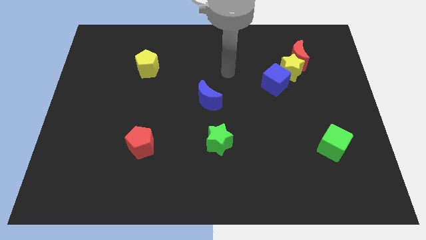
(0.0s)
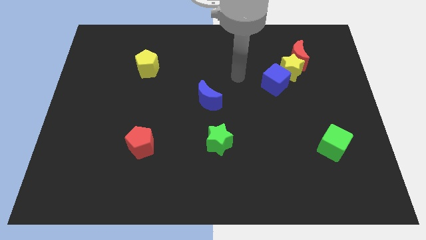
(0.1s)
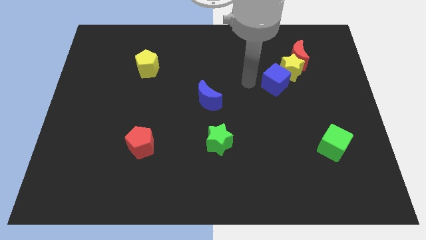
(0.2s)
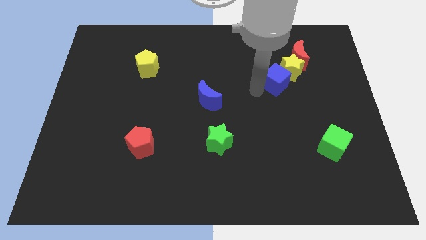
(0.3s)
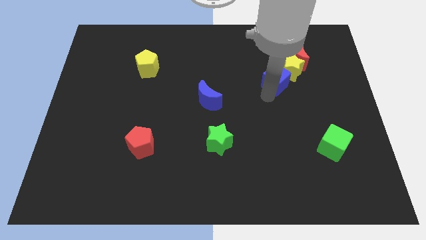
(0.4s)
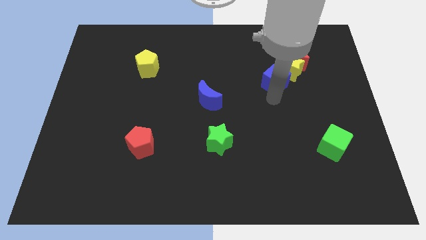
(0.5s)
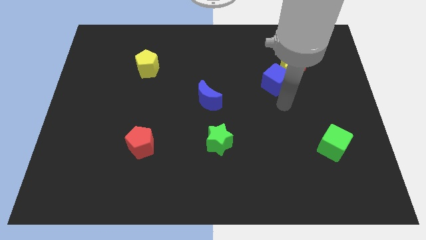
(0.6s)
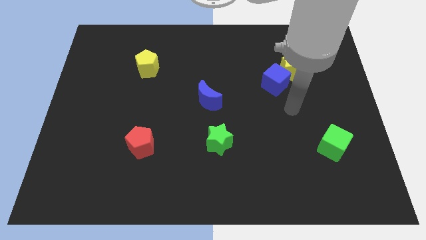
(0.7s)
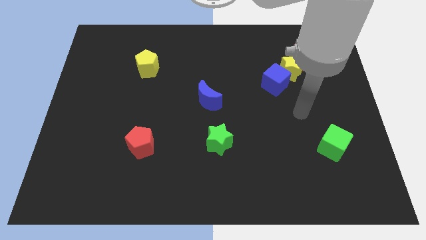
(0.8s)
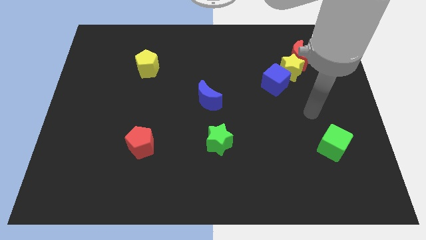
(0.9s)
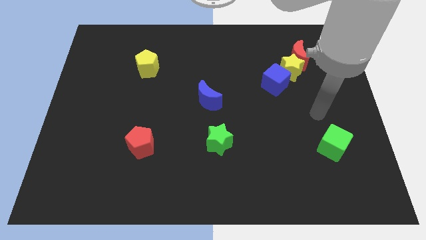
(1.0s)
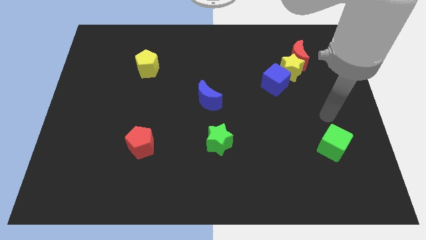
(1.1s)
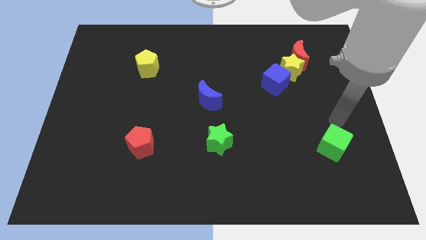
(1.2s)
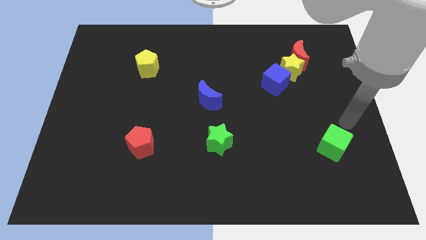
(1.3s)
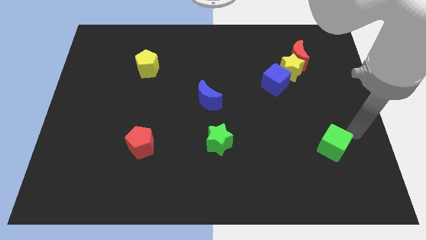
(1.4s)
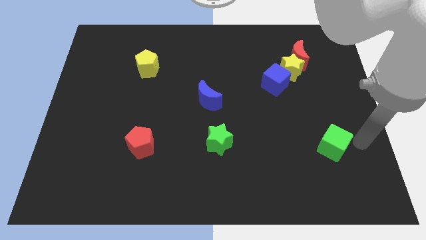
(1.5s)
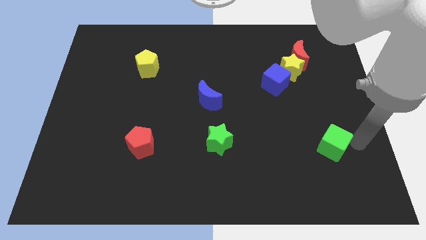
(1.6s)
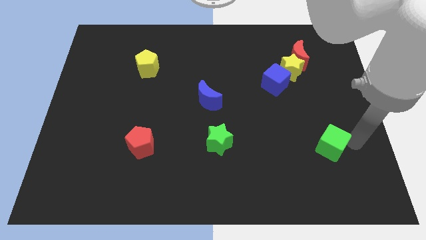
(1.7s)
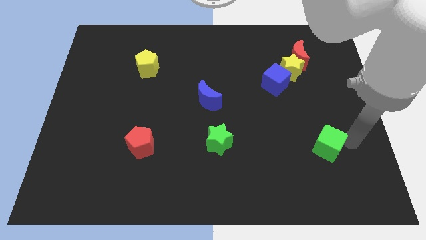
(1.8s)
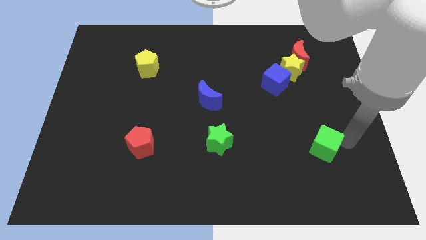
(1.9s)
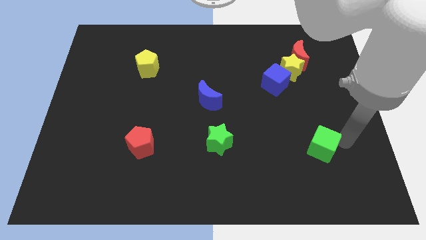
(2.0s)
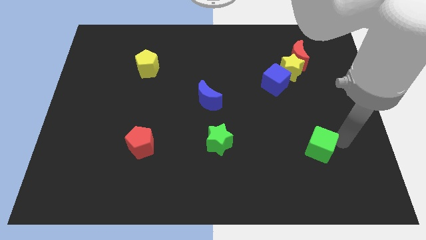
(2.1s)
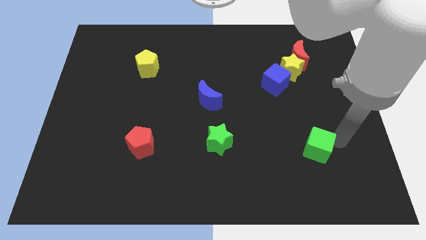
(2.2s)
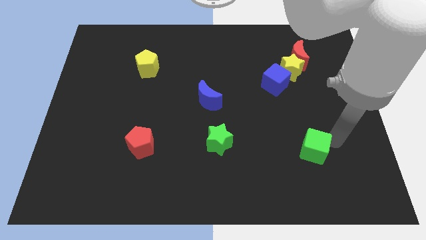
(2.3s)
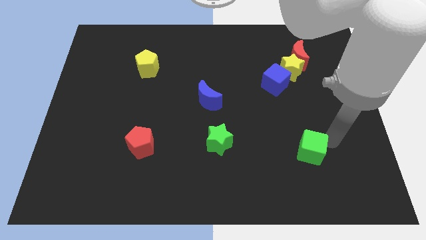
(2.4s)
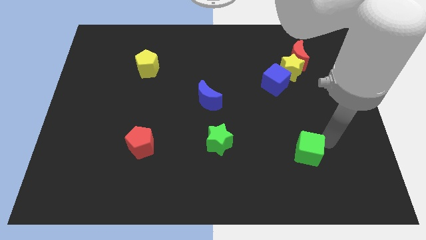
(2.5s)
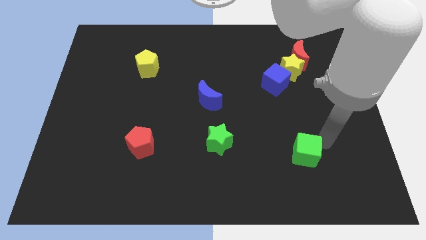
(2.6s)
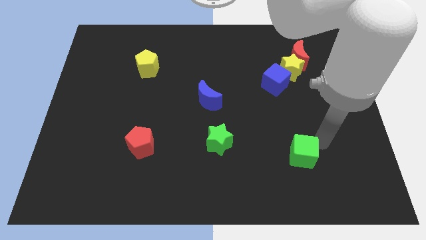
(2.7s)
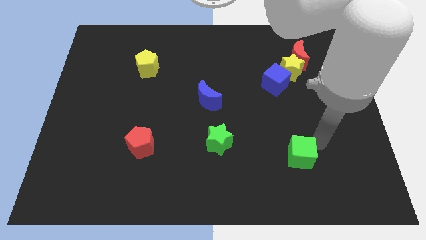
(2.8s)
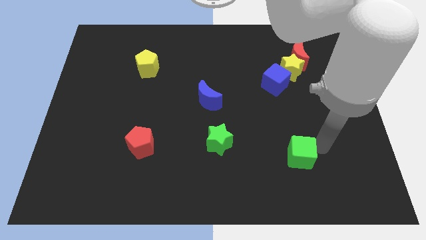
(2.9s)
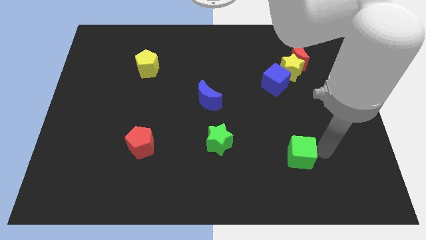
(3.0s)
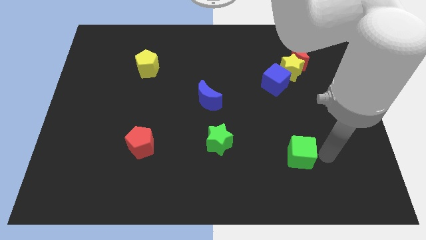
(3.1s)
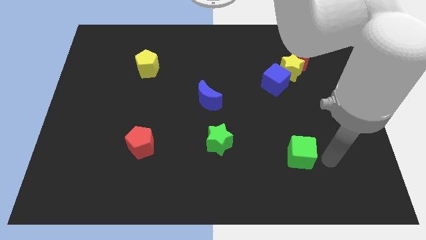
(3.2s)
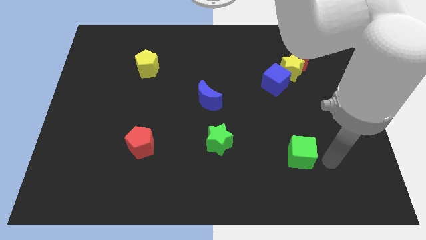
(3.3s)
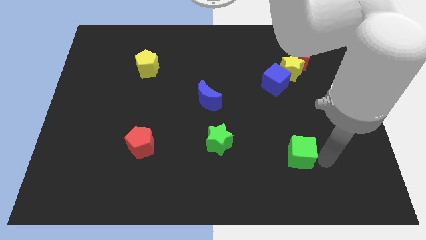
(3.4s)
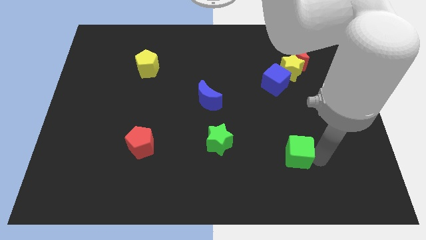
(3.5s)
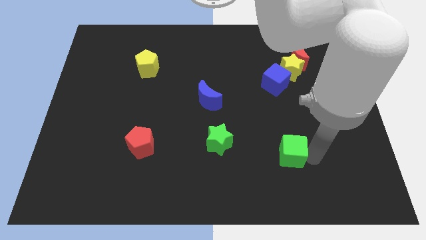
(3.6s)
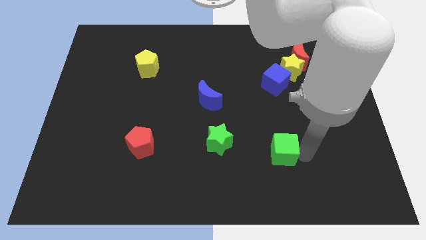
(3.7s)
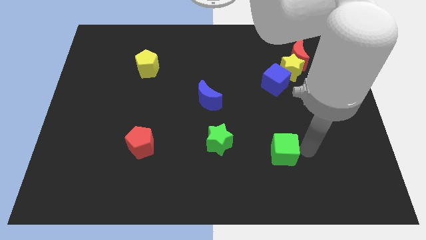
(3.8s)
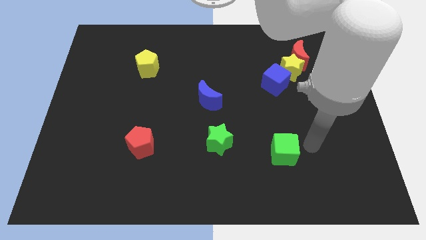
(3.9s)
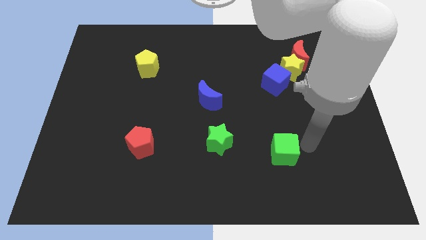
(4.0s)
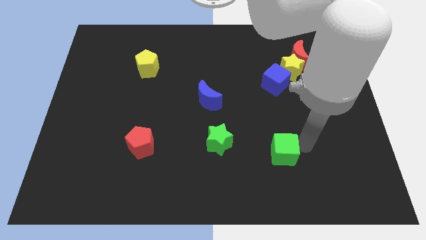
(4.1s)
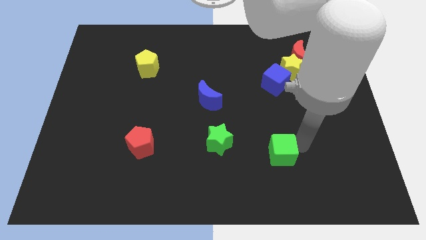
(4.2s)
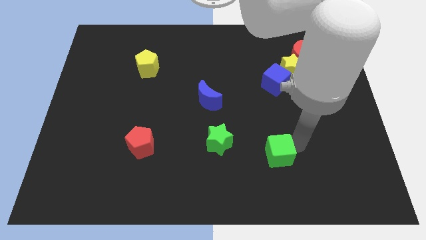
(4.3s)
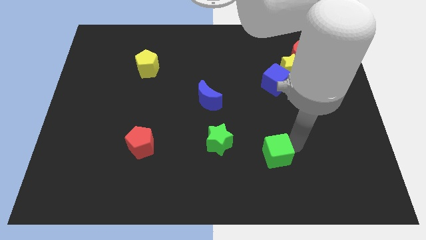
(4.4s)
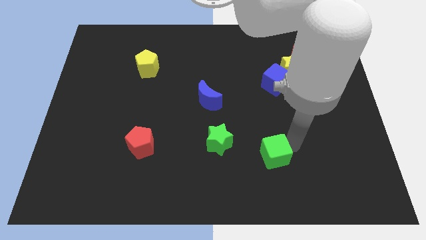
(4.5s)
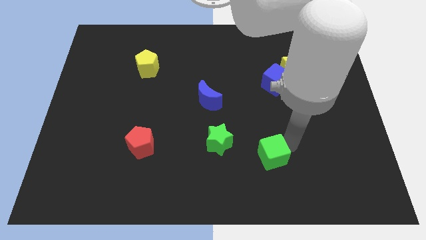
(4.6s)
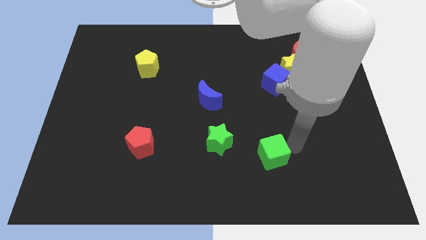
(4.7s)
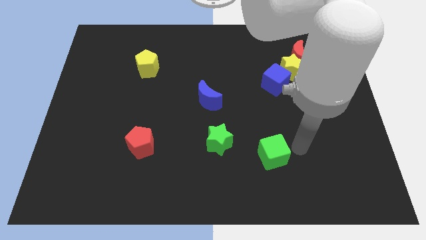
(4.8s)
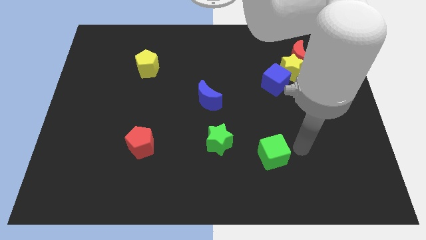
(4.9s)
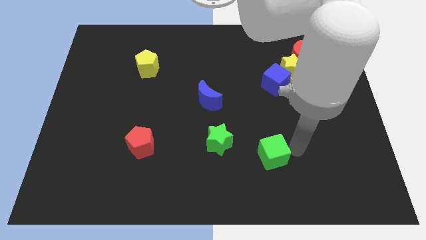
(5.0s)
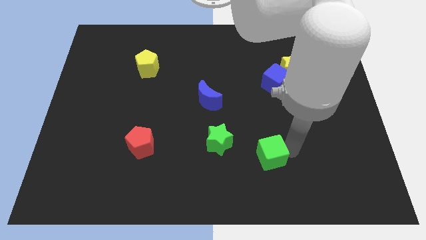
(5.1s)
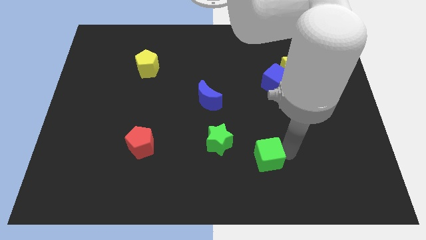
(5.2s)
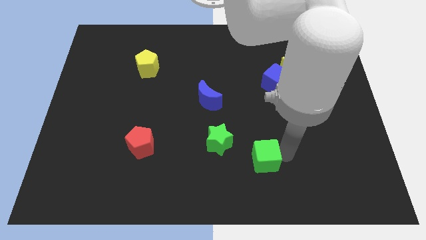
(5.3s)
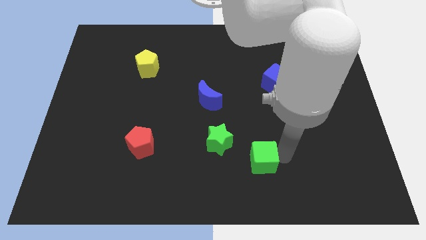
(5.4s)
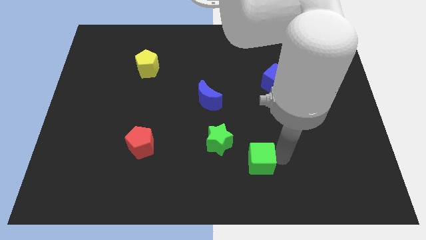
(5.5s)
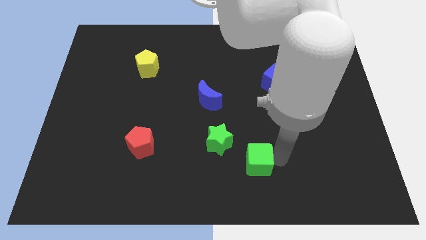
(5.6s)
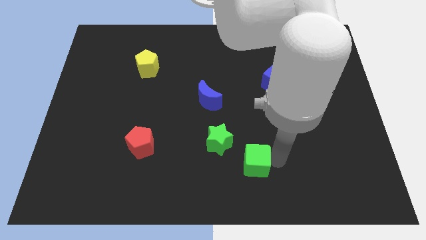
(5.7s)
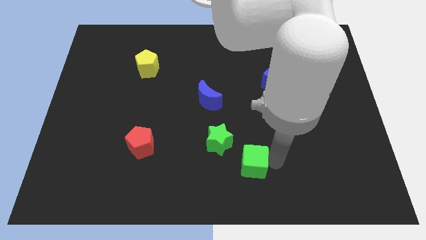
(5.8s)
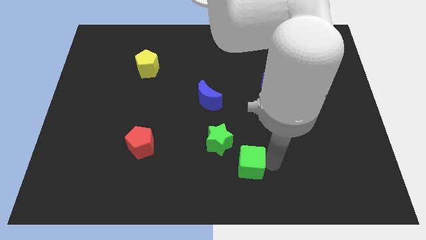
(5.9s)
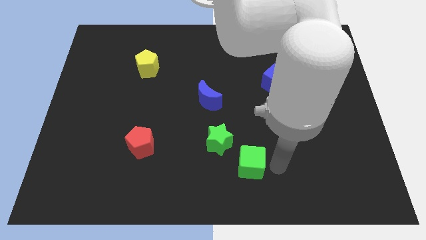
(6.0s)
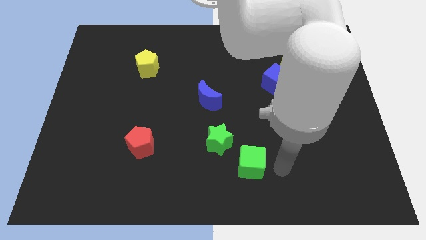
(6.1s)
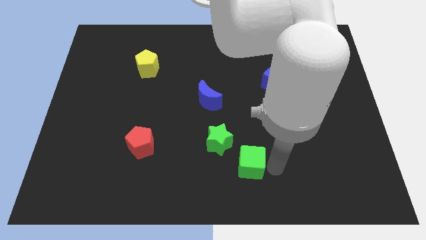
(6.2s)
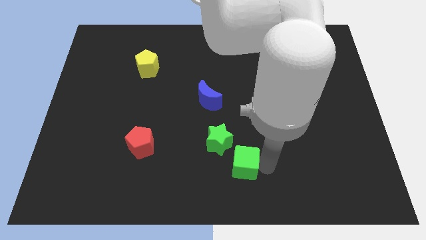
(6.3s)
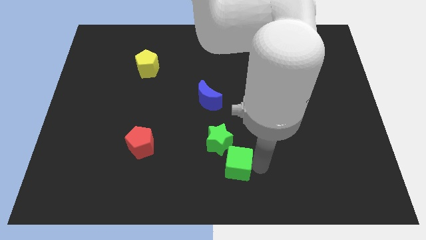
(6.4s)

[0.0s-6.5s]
move the green cube left

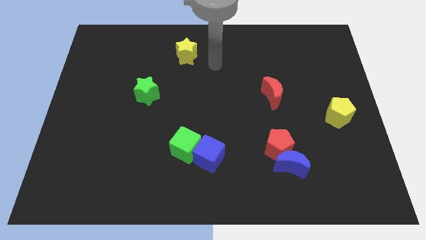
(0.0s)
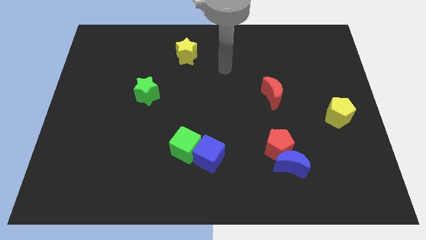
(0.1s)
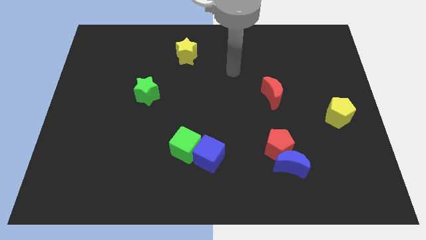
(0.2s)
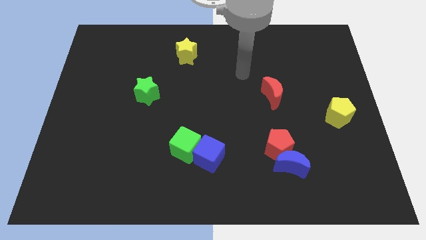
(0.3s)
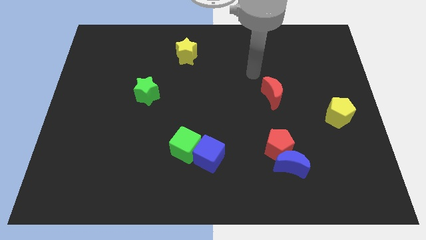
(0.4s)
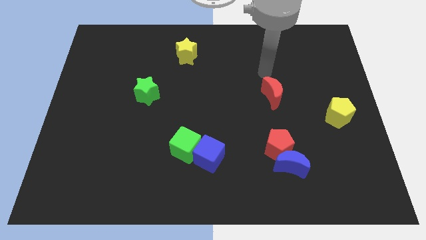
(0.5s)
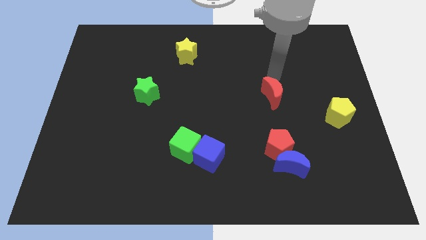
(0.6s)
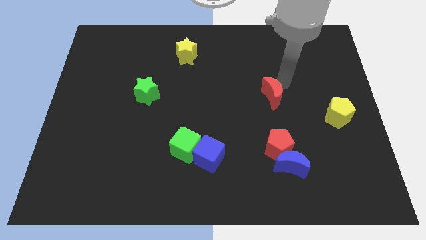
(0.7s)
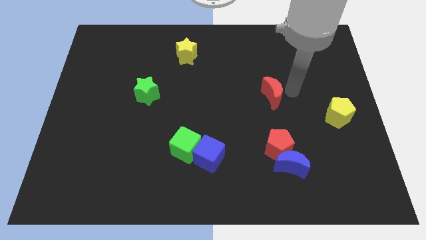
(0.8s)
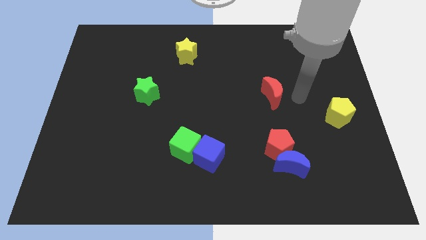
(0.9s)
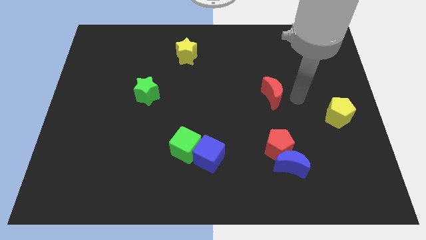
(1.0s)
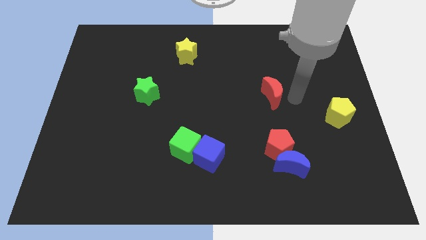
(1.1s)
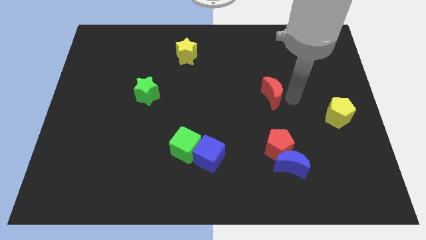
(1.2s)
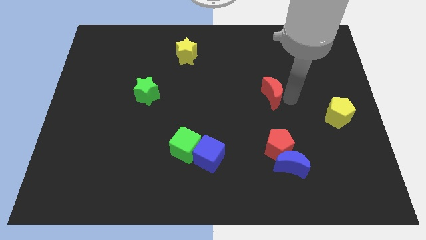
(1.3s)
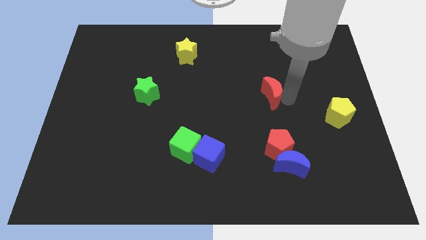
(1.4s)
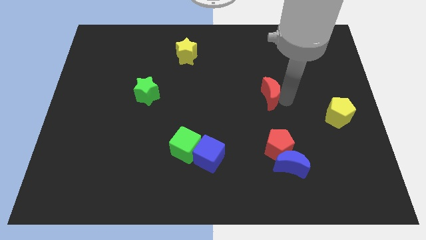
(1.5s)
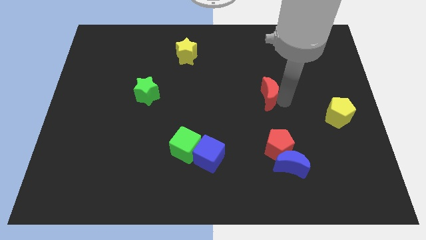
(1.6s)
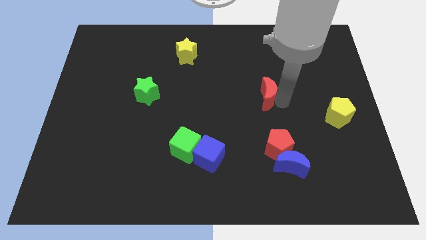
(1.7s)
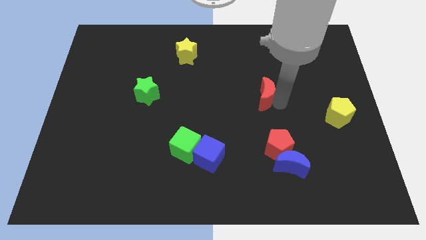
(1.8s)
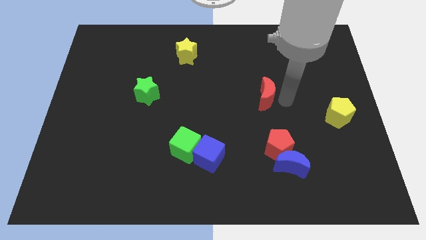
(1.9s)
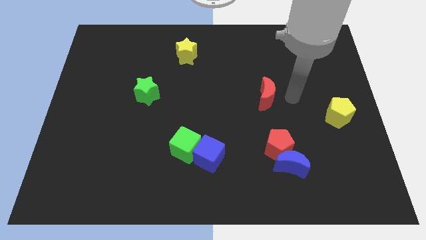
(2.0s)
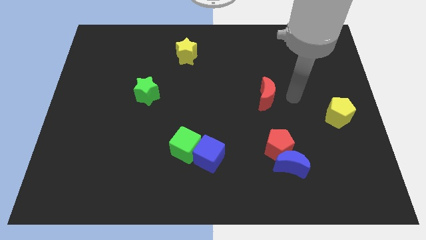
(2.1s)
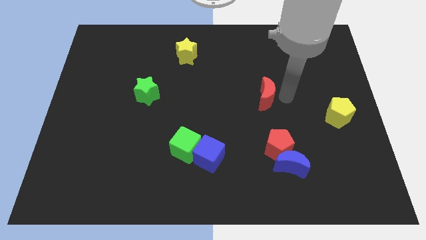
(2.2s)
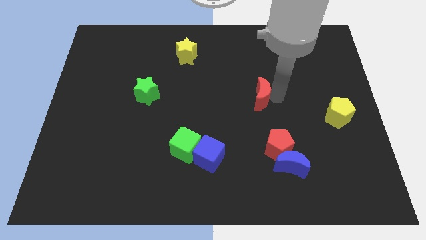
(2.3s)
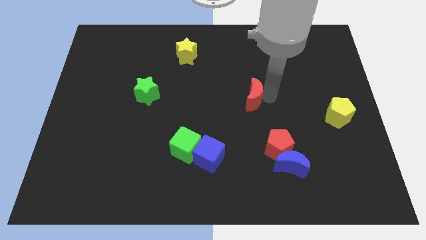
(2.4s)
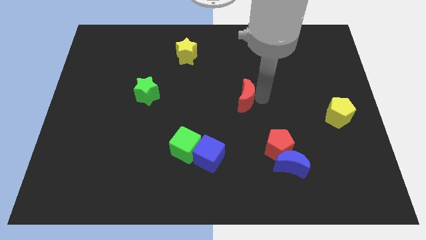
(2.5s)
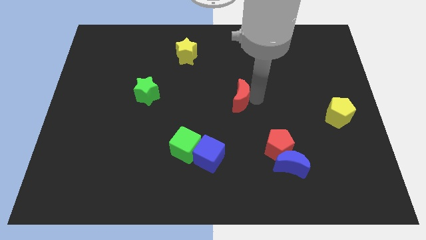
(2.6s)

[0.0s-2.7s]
push the red moon left slightly
